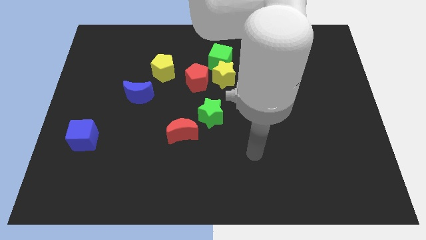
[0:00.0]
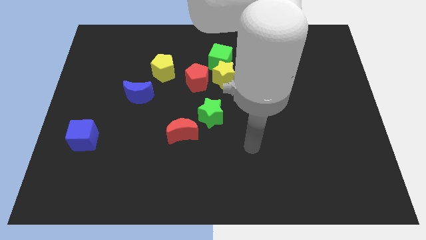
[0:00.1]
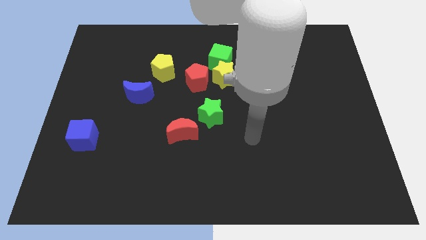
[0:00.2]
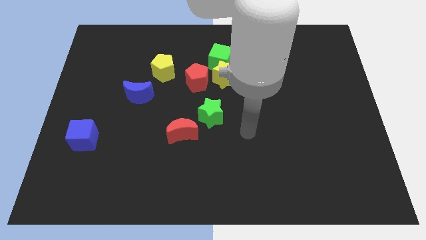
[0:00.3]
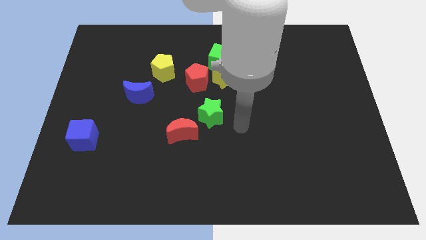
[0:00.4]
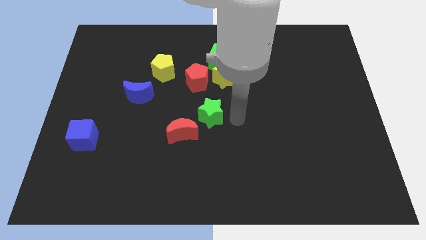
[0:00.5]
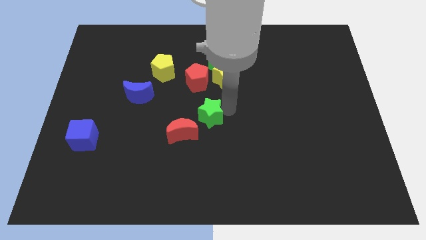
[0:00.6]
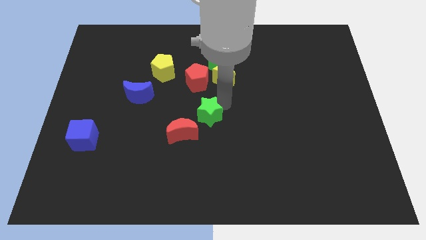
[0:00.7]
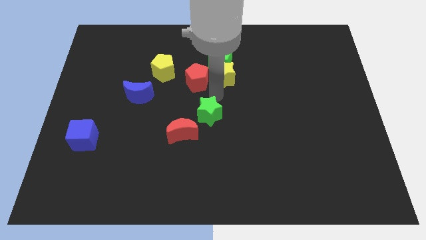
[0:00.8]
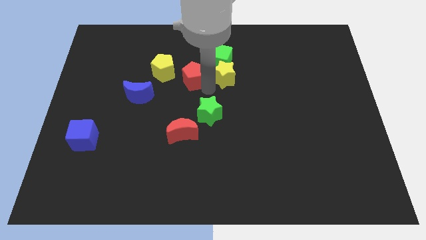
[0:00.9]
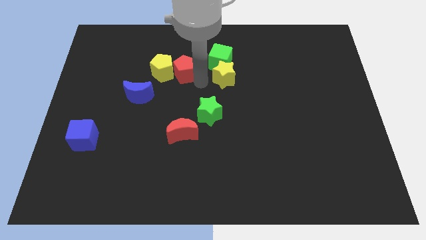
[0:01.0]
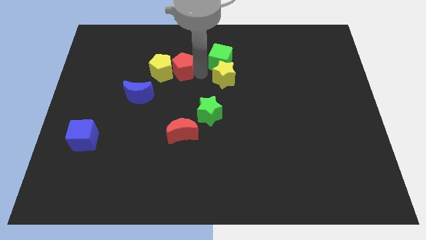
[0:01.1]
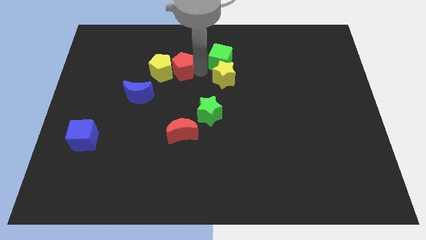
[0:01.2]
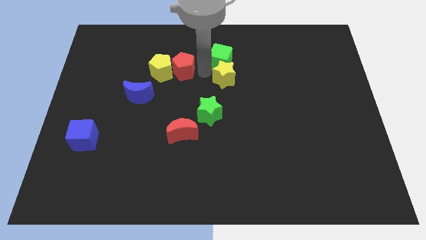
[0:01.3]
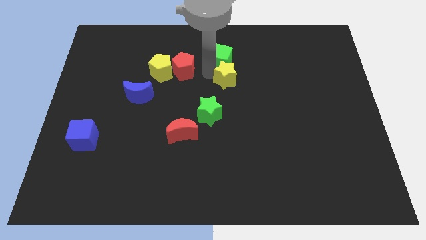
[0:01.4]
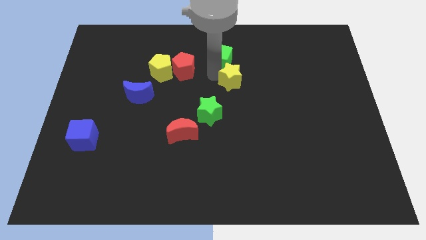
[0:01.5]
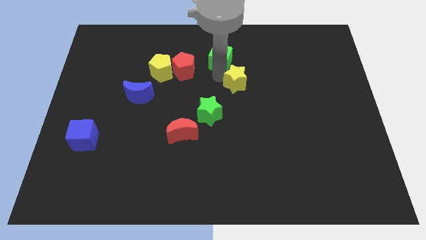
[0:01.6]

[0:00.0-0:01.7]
pull the yellow star apart from the green cube and red pentagon

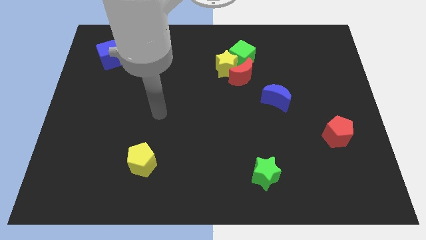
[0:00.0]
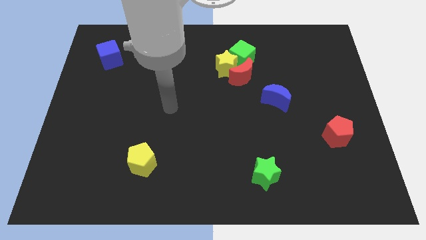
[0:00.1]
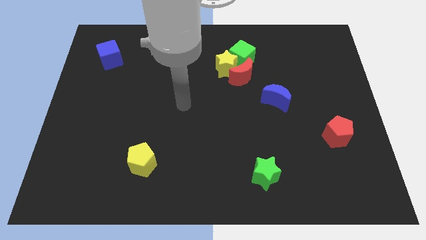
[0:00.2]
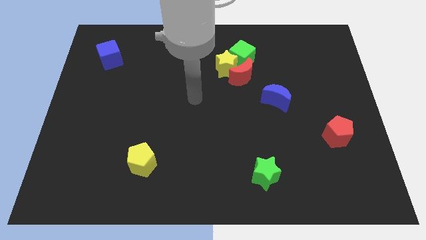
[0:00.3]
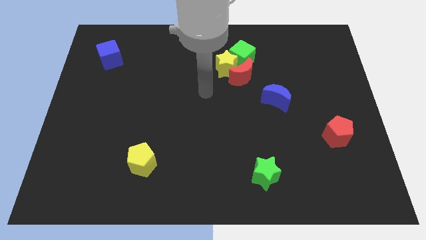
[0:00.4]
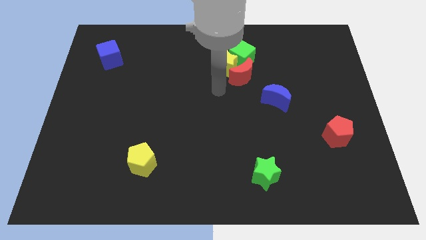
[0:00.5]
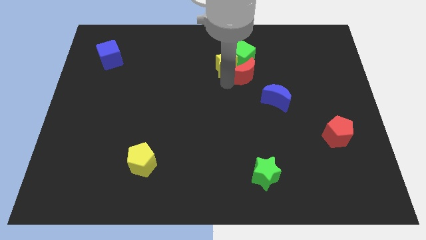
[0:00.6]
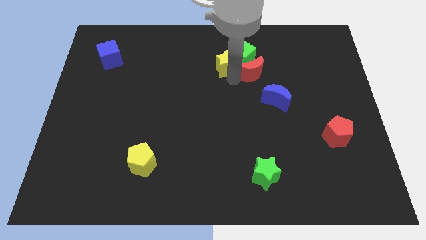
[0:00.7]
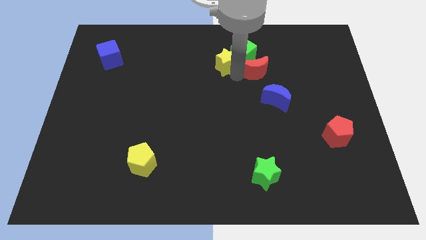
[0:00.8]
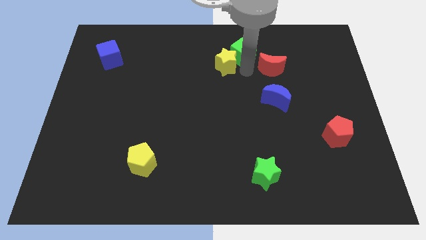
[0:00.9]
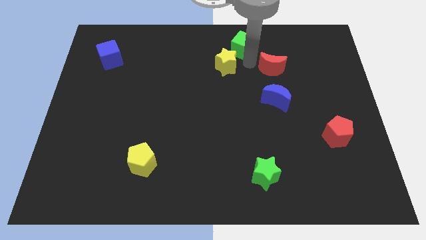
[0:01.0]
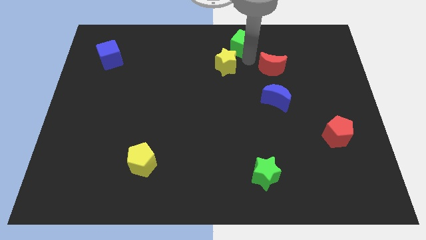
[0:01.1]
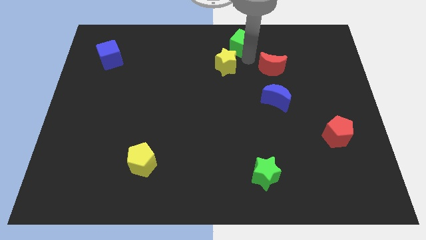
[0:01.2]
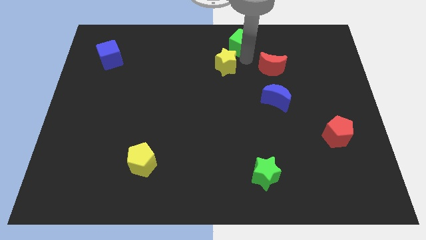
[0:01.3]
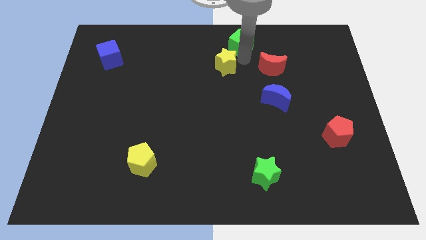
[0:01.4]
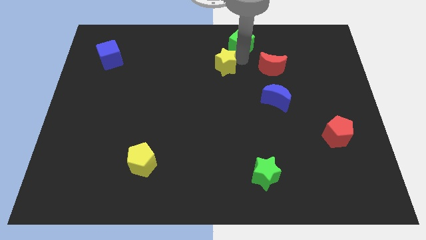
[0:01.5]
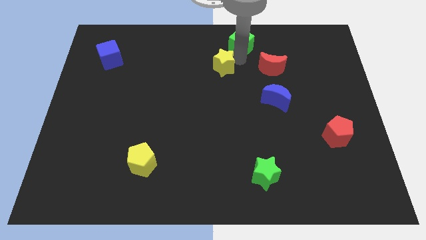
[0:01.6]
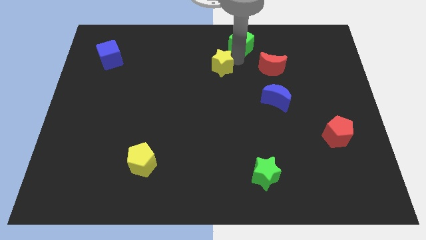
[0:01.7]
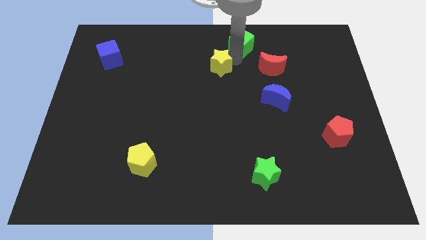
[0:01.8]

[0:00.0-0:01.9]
separate the yellow star from the red moon and green cube

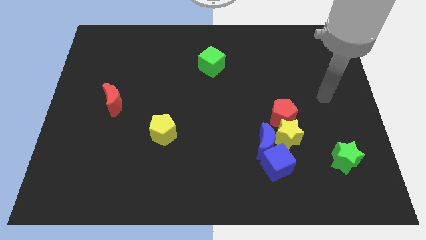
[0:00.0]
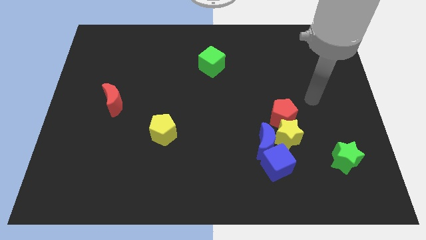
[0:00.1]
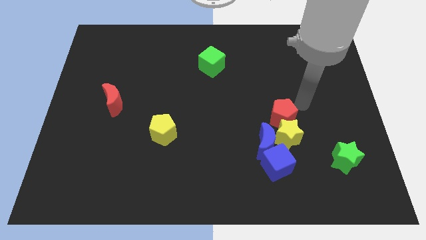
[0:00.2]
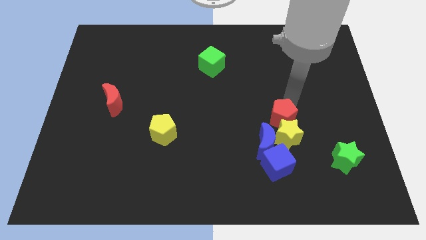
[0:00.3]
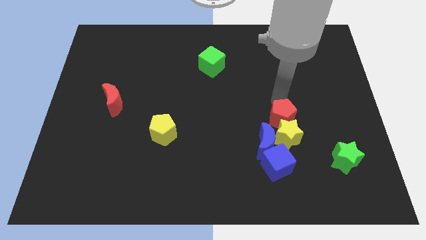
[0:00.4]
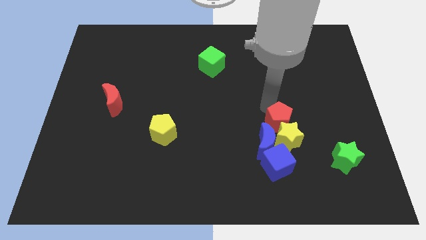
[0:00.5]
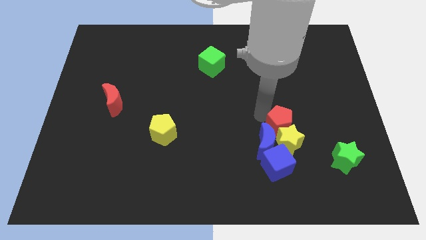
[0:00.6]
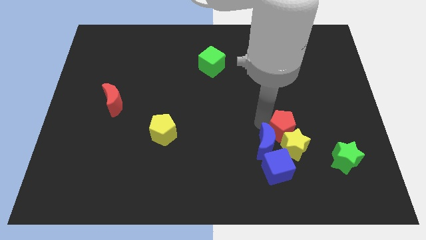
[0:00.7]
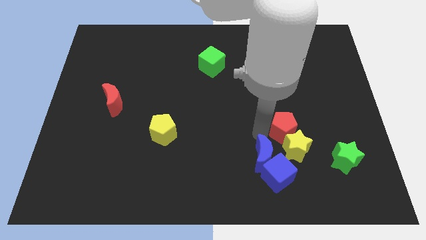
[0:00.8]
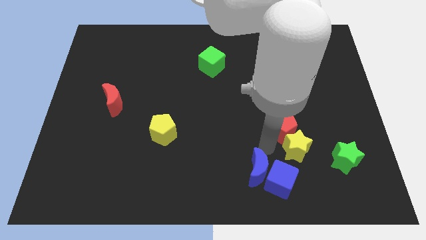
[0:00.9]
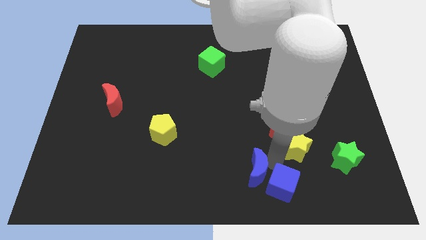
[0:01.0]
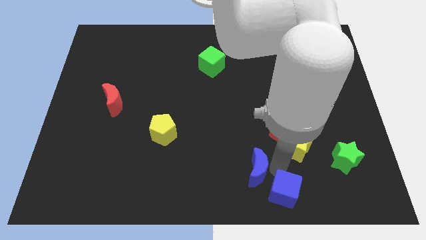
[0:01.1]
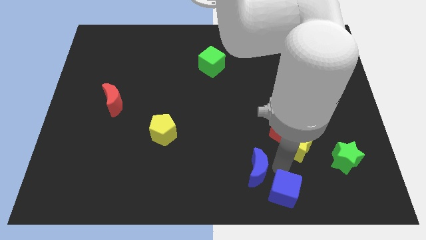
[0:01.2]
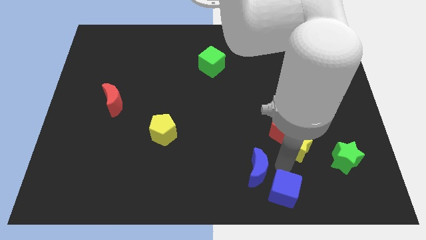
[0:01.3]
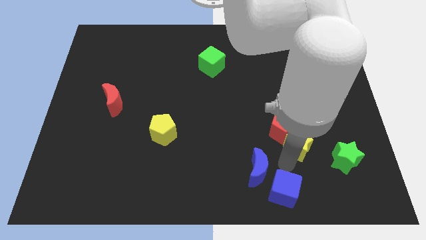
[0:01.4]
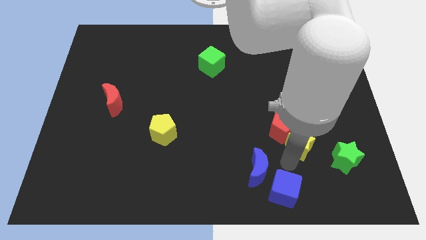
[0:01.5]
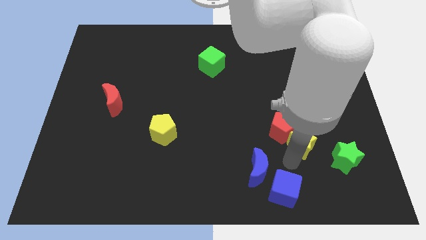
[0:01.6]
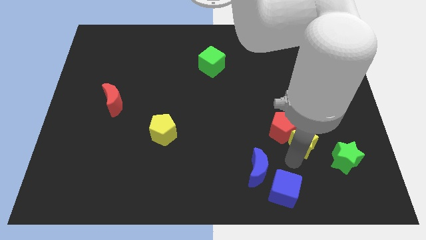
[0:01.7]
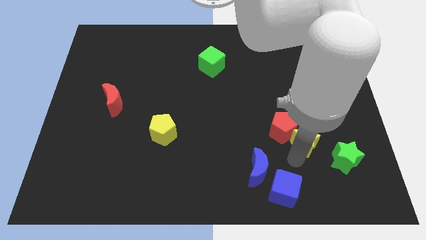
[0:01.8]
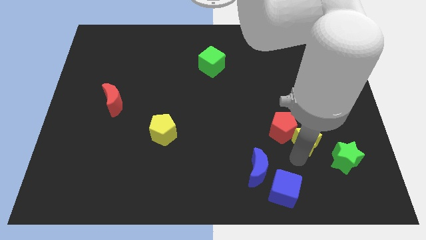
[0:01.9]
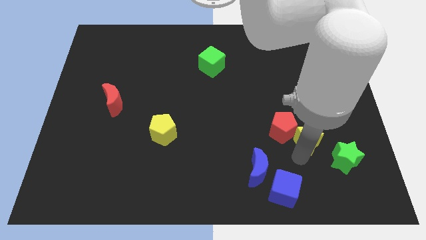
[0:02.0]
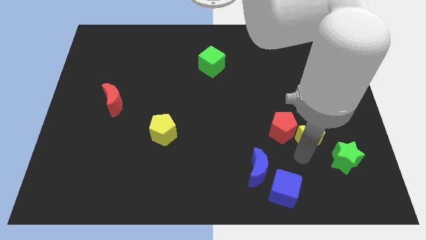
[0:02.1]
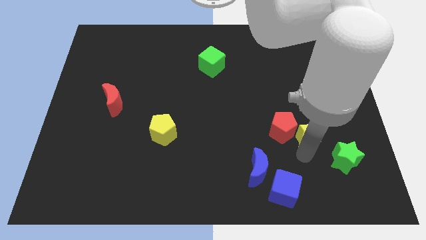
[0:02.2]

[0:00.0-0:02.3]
separate the yellow star from the blue moon, red pentagon, and blue cube

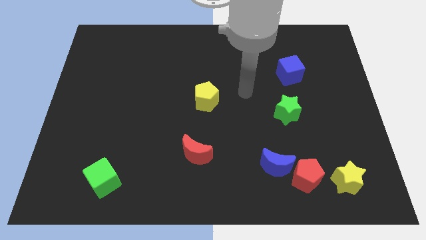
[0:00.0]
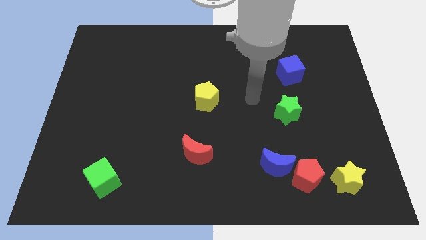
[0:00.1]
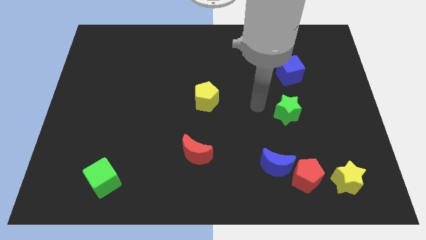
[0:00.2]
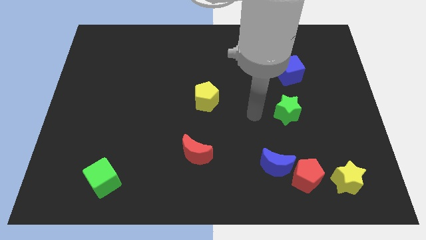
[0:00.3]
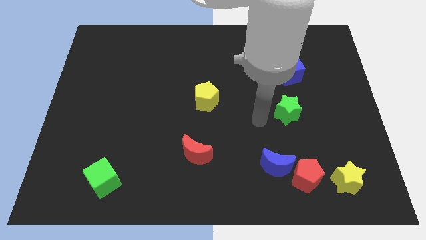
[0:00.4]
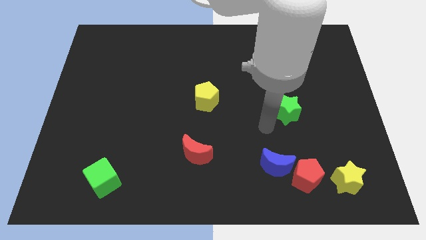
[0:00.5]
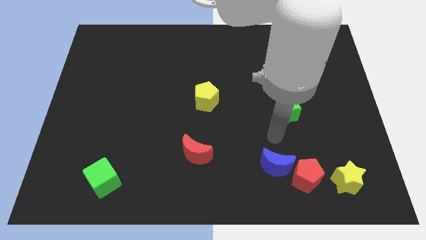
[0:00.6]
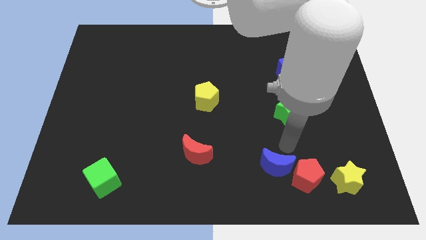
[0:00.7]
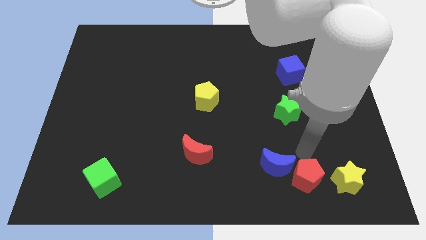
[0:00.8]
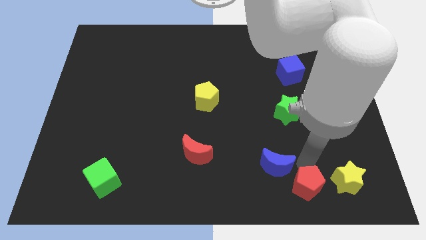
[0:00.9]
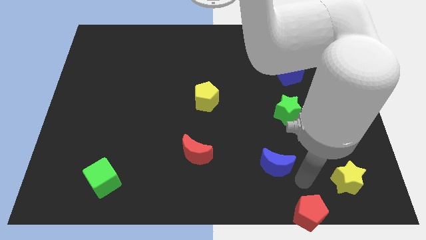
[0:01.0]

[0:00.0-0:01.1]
pull the blue moon apart from the red pentagon

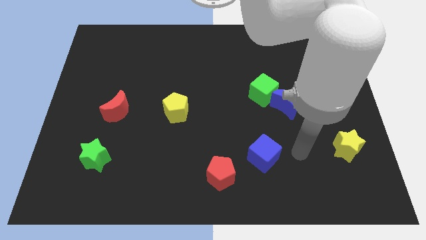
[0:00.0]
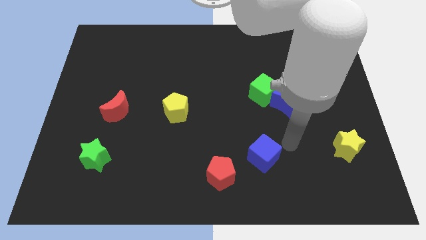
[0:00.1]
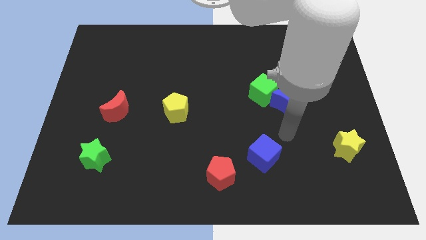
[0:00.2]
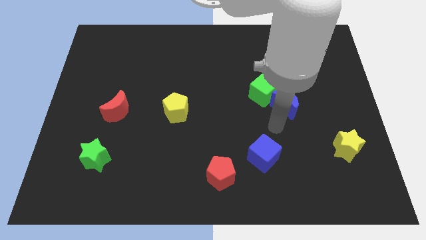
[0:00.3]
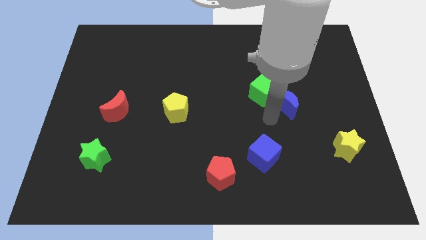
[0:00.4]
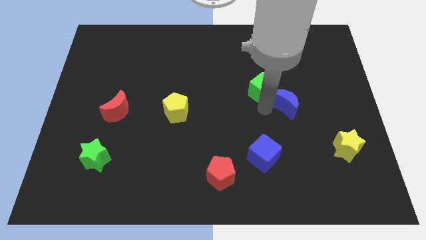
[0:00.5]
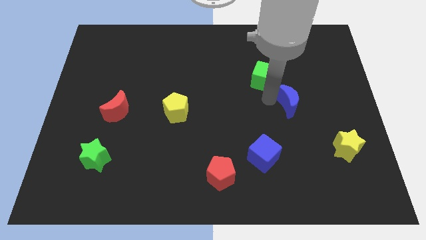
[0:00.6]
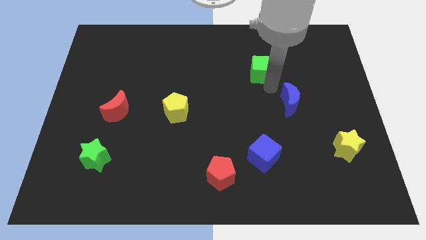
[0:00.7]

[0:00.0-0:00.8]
separate the blue moon from the green cube

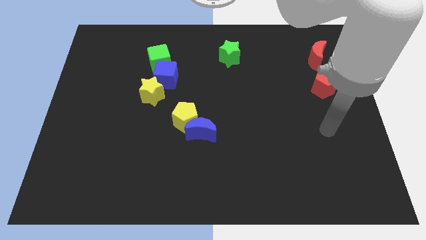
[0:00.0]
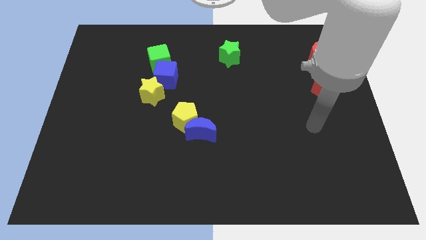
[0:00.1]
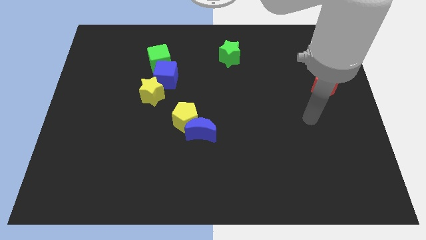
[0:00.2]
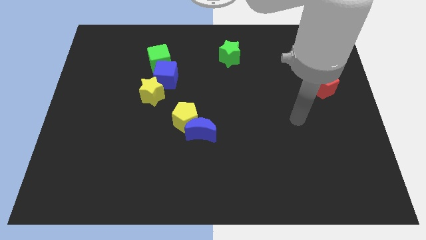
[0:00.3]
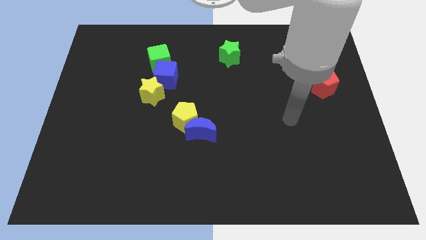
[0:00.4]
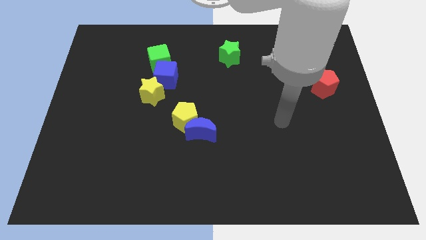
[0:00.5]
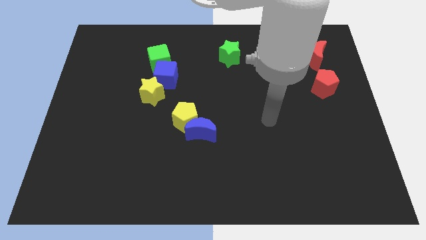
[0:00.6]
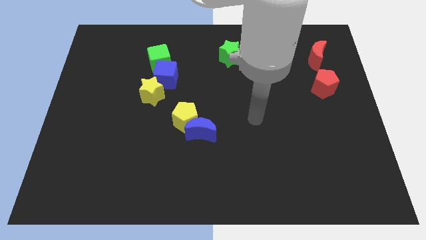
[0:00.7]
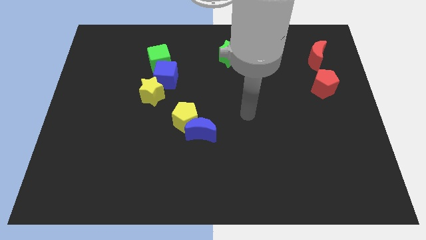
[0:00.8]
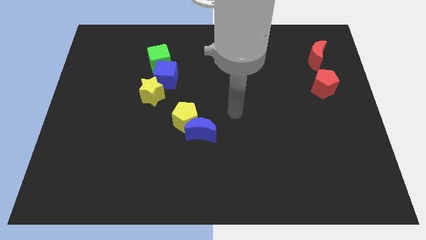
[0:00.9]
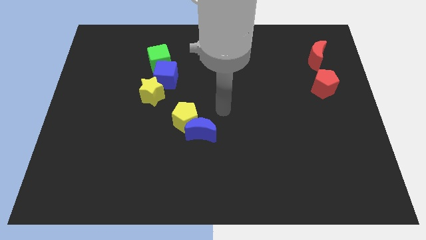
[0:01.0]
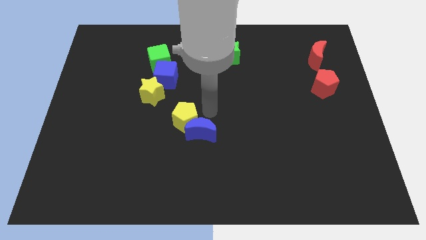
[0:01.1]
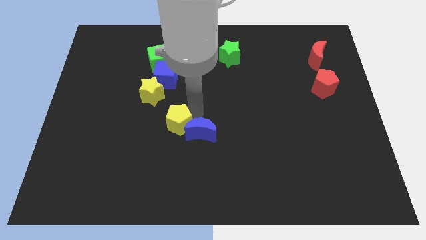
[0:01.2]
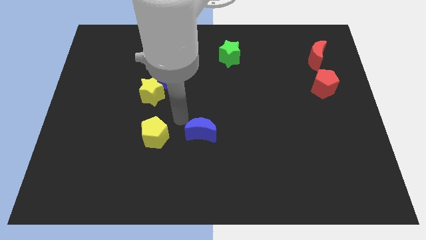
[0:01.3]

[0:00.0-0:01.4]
move the blue moon away from the yellow pentagon

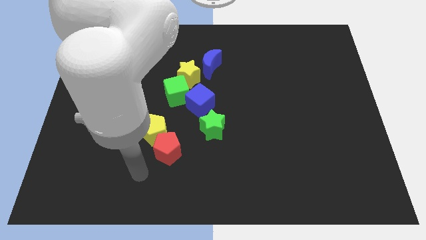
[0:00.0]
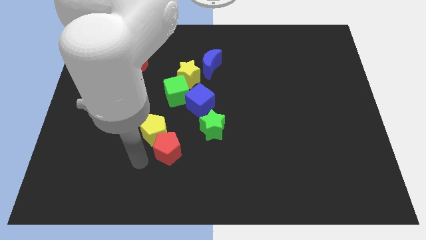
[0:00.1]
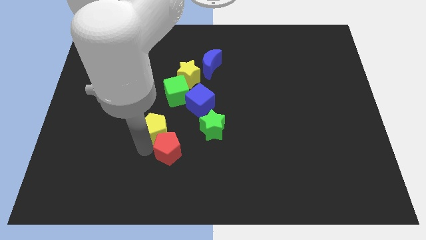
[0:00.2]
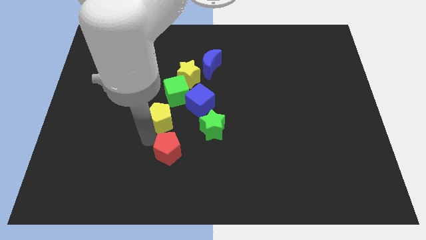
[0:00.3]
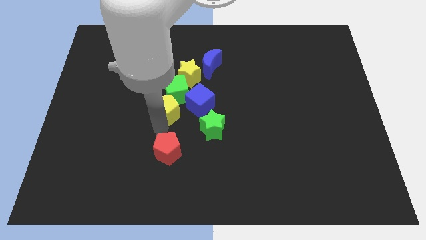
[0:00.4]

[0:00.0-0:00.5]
separate the red pentagon from the yellow pentagon
